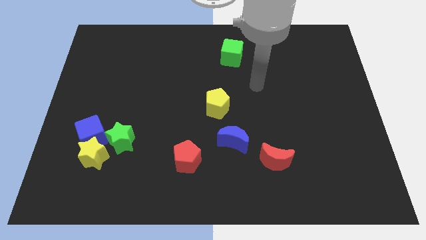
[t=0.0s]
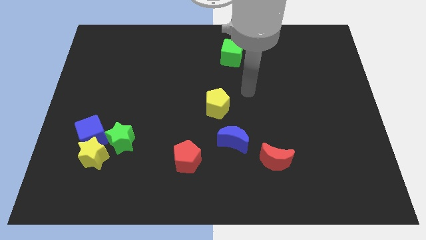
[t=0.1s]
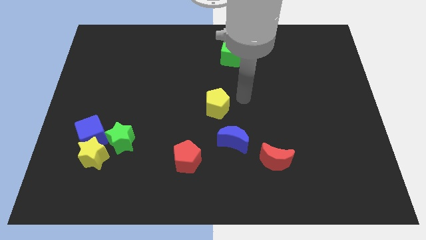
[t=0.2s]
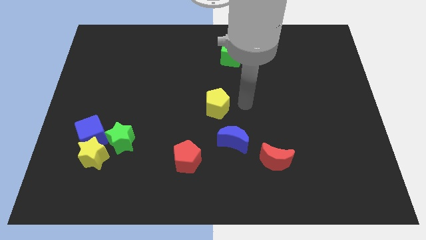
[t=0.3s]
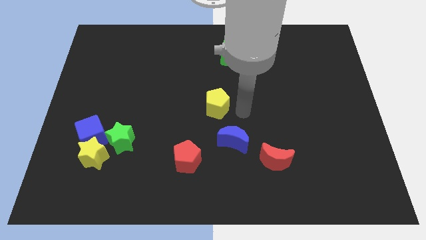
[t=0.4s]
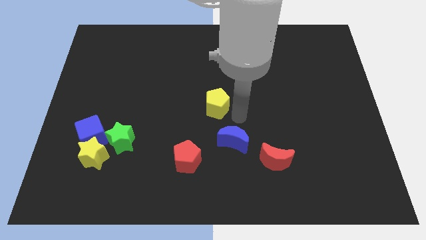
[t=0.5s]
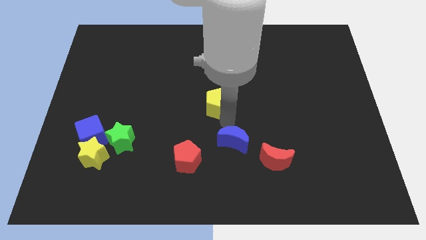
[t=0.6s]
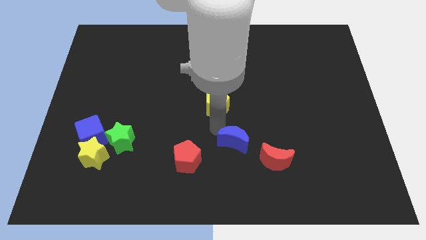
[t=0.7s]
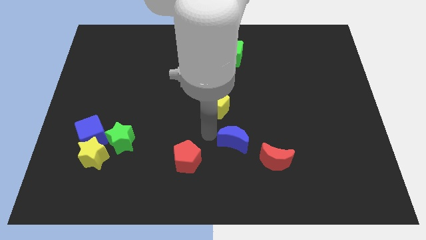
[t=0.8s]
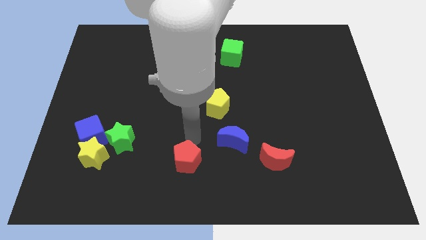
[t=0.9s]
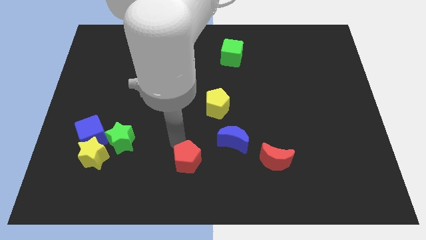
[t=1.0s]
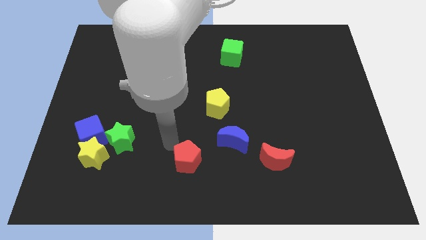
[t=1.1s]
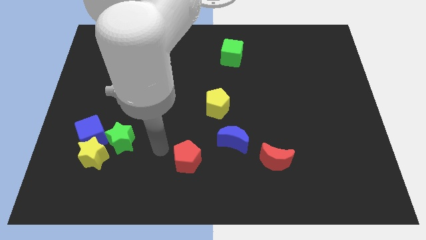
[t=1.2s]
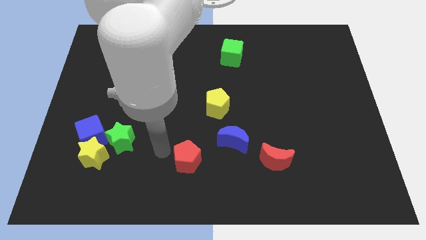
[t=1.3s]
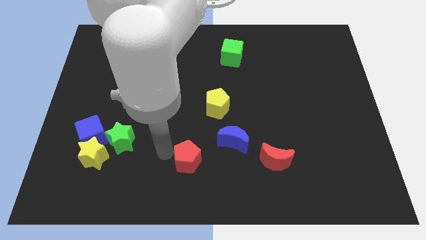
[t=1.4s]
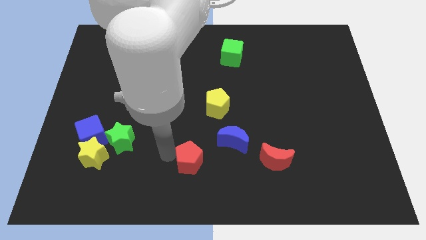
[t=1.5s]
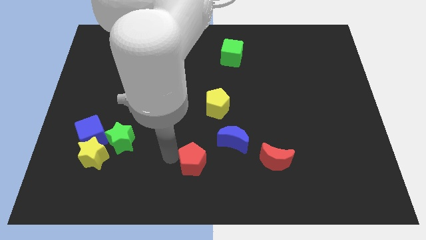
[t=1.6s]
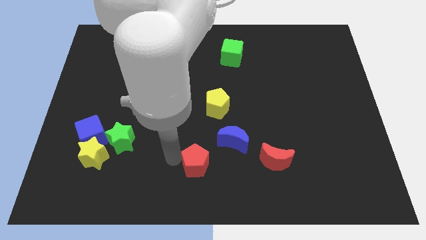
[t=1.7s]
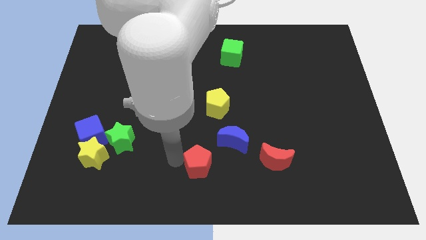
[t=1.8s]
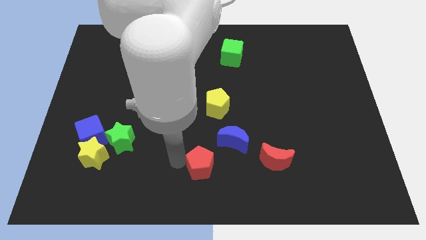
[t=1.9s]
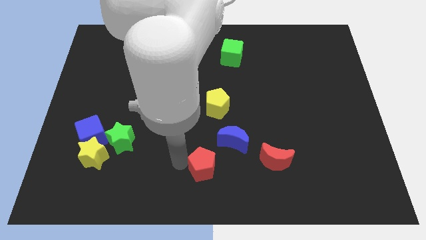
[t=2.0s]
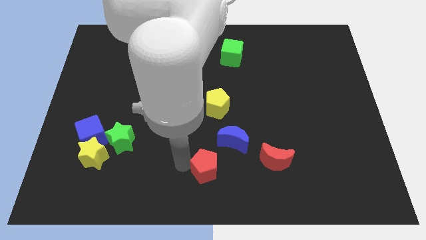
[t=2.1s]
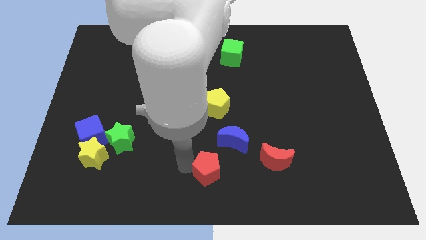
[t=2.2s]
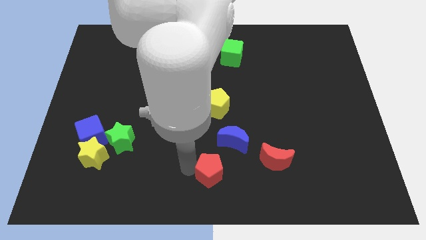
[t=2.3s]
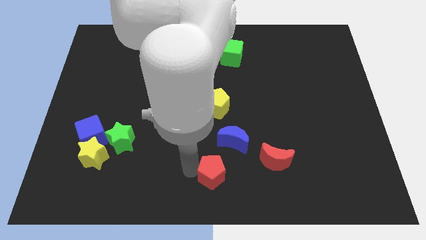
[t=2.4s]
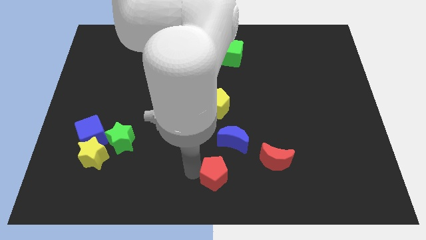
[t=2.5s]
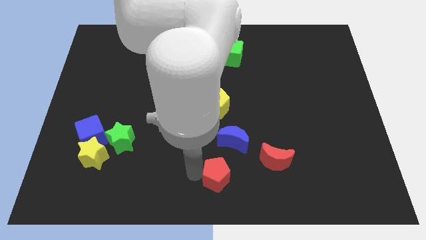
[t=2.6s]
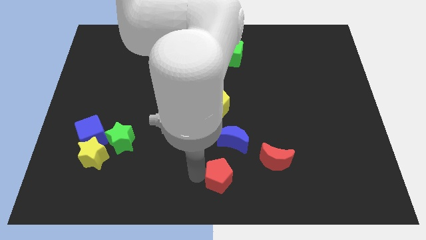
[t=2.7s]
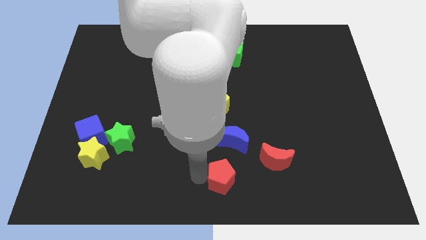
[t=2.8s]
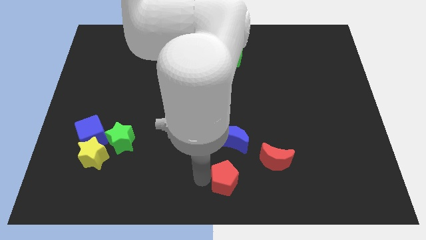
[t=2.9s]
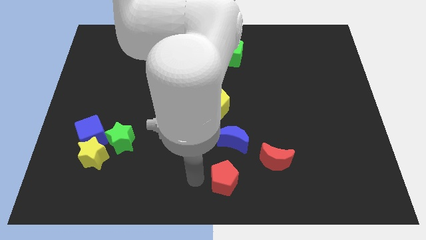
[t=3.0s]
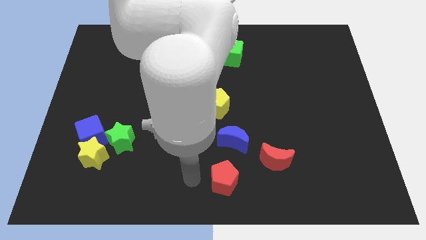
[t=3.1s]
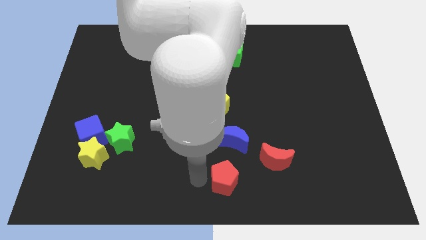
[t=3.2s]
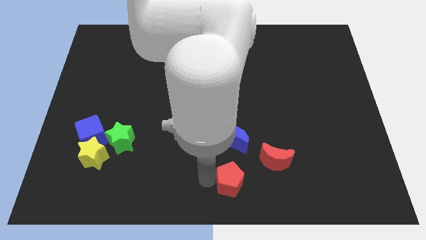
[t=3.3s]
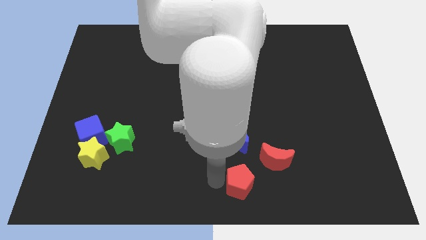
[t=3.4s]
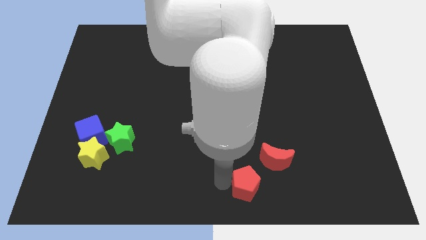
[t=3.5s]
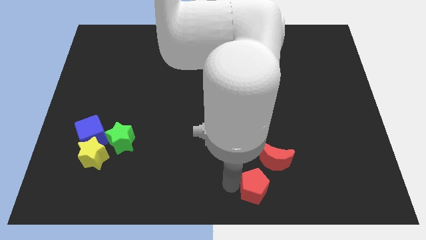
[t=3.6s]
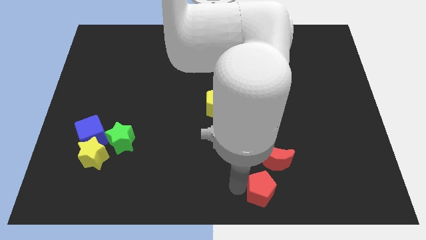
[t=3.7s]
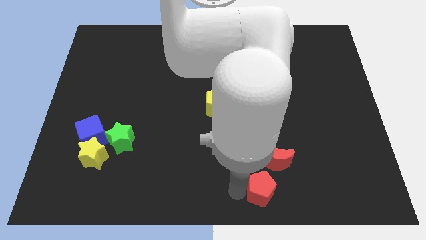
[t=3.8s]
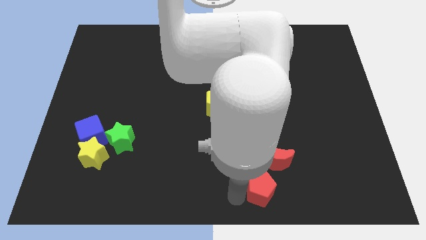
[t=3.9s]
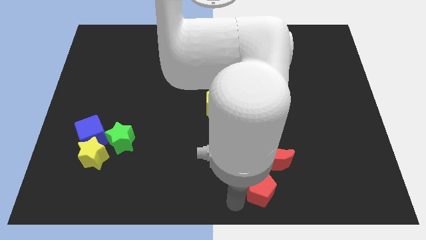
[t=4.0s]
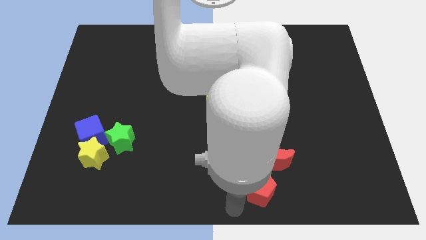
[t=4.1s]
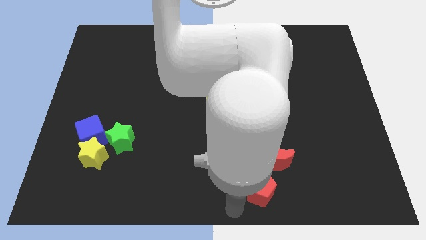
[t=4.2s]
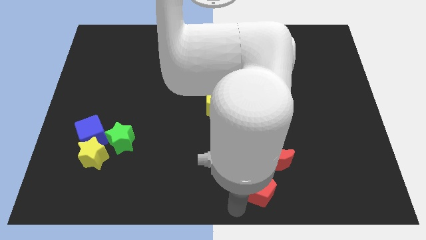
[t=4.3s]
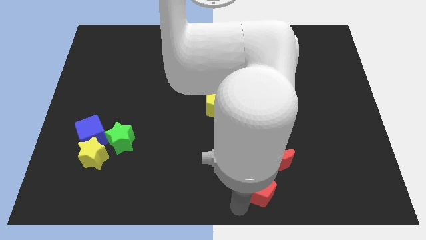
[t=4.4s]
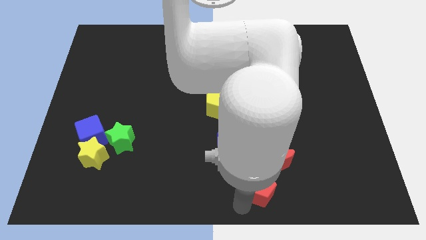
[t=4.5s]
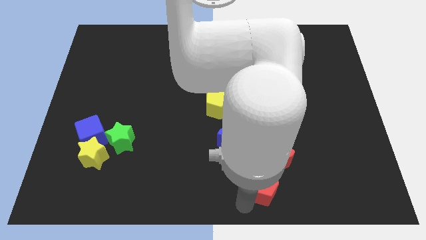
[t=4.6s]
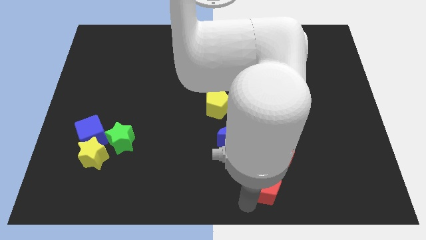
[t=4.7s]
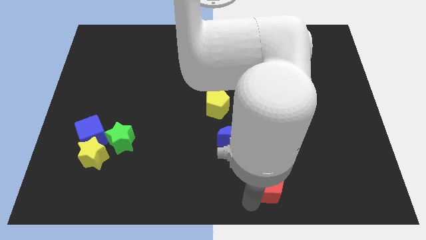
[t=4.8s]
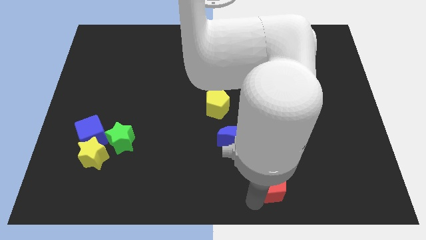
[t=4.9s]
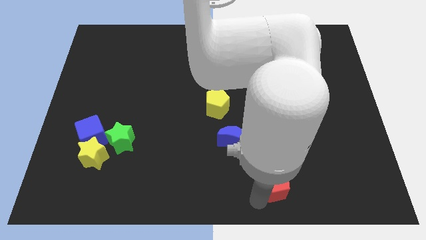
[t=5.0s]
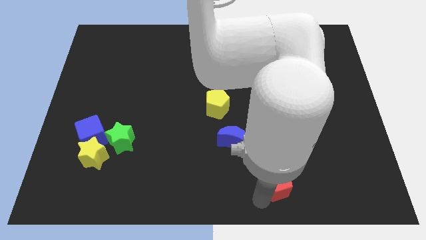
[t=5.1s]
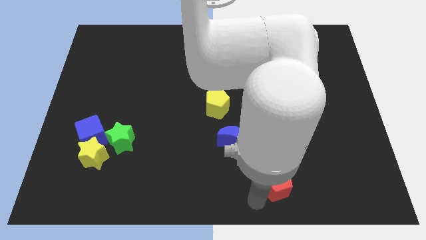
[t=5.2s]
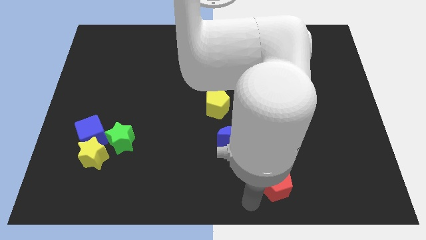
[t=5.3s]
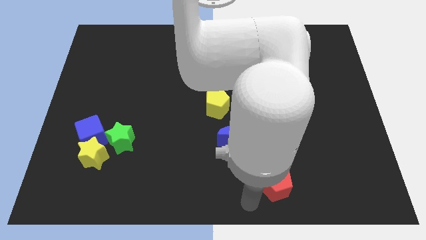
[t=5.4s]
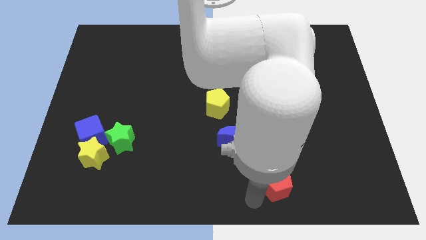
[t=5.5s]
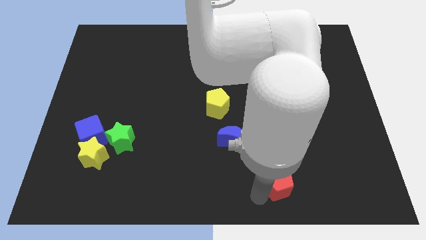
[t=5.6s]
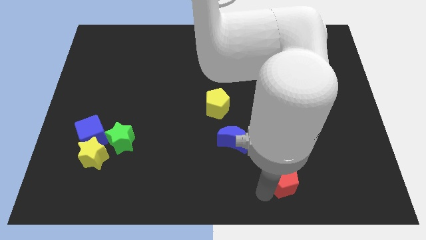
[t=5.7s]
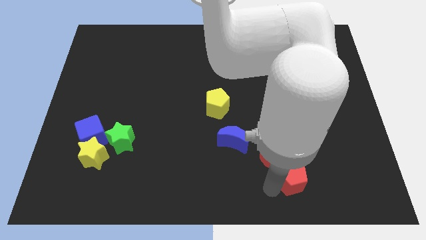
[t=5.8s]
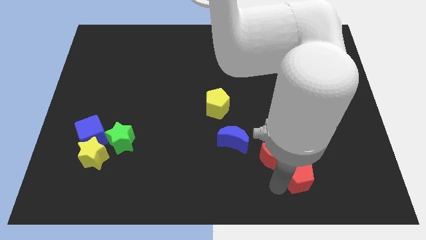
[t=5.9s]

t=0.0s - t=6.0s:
put the red pentagon right of the red moon

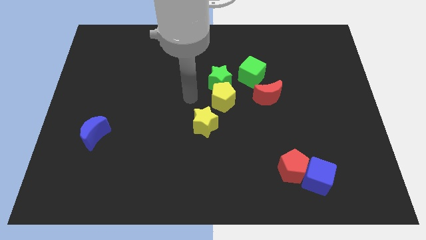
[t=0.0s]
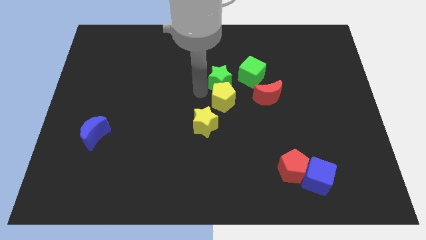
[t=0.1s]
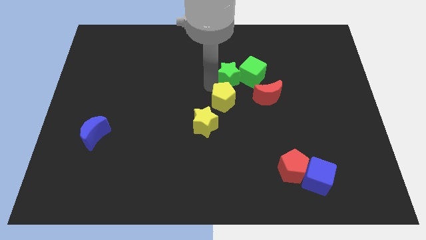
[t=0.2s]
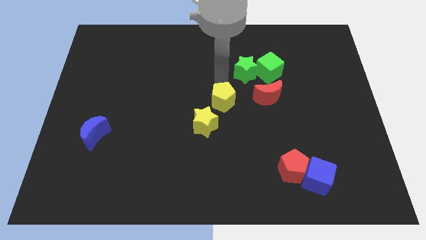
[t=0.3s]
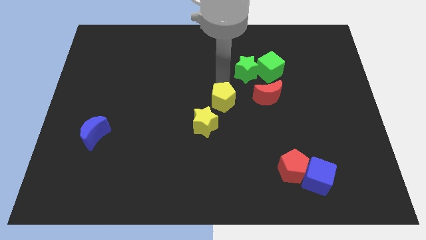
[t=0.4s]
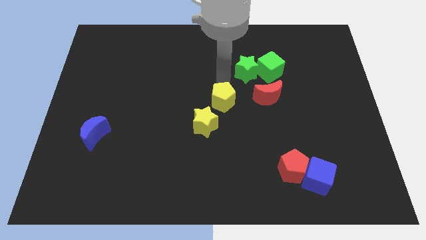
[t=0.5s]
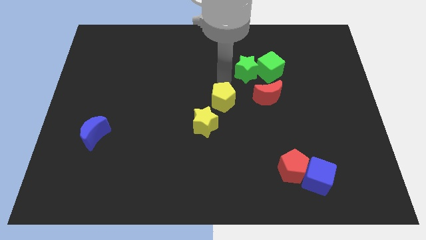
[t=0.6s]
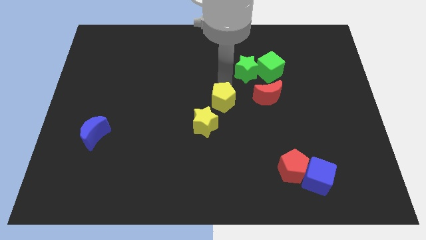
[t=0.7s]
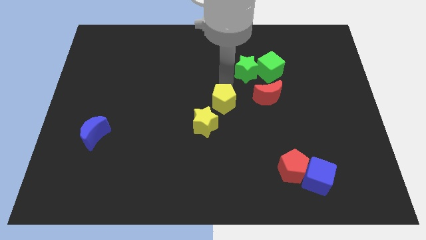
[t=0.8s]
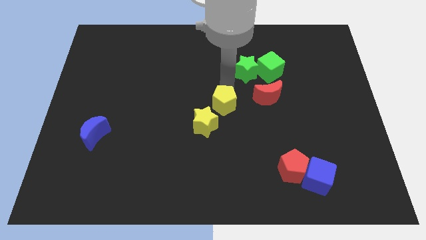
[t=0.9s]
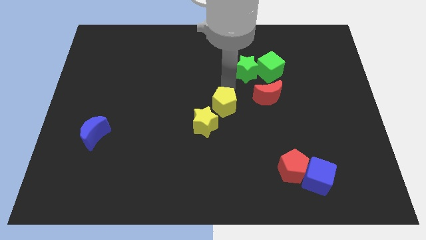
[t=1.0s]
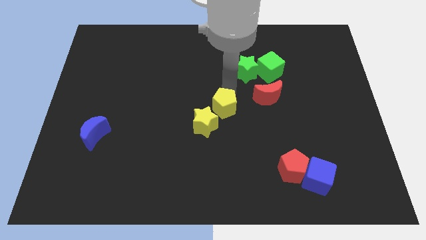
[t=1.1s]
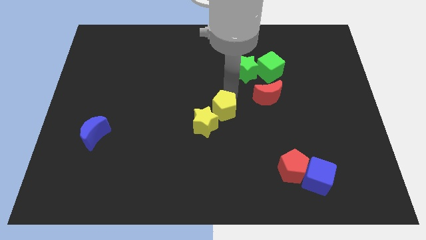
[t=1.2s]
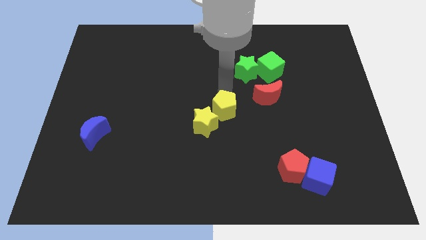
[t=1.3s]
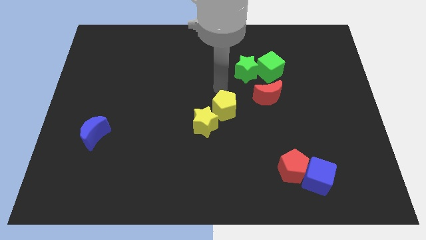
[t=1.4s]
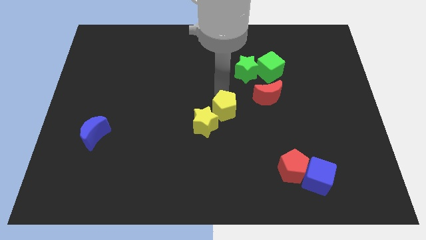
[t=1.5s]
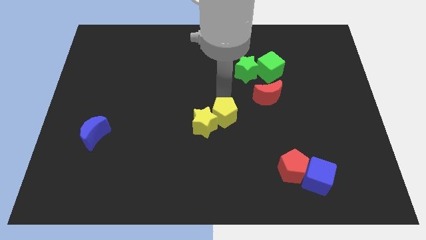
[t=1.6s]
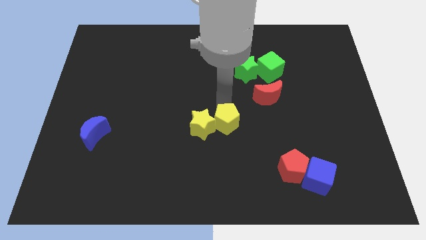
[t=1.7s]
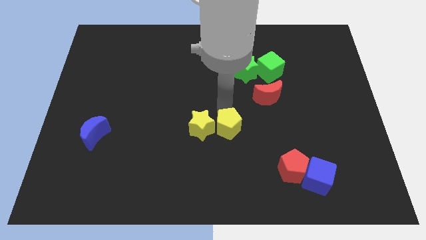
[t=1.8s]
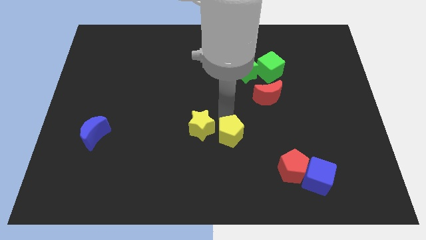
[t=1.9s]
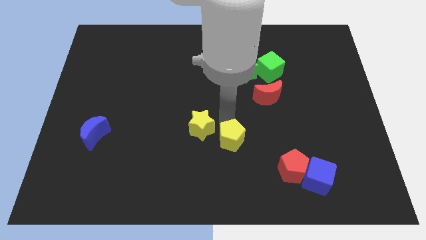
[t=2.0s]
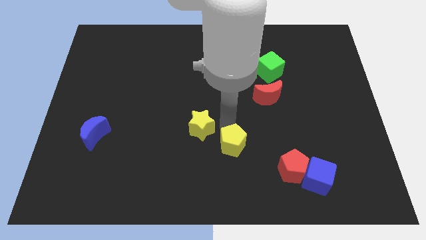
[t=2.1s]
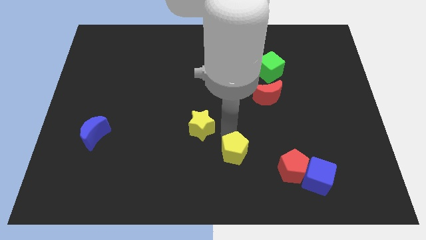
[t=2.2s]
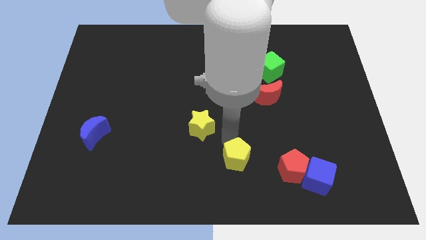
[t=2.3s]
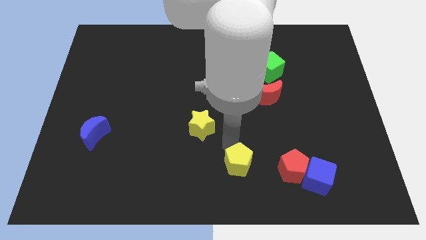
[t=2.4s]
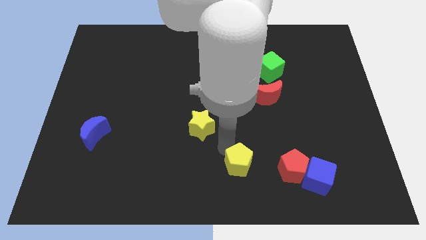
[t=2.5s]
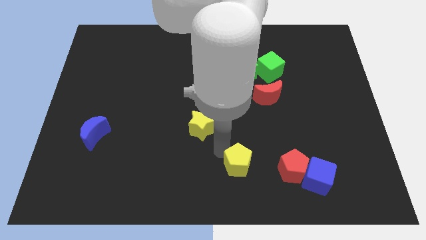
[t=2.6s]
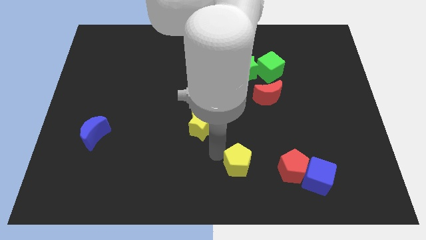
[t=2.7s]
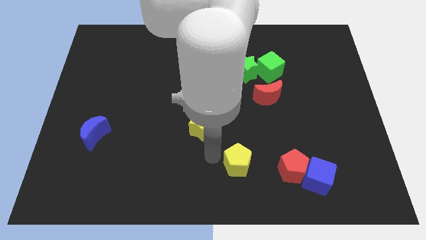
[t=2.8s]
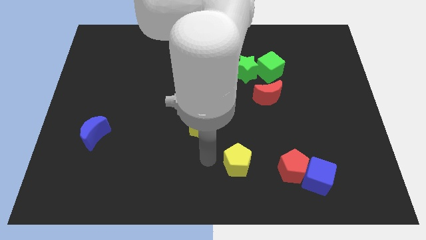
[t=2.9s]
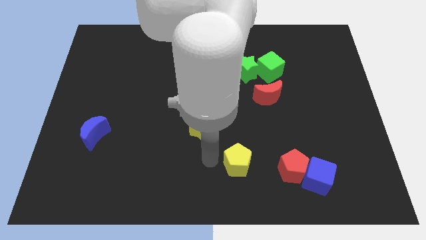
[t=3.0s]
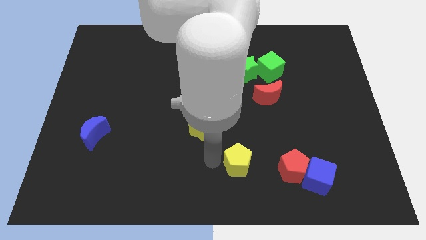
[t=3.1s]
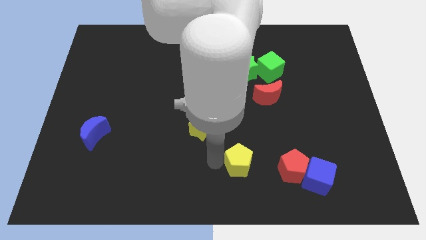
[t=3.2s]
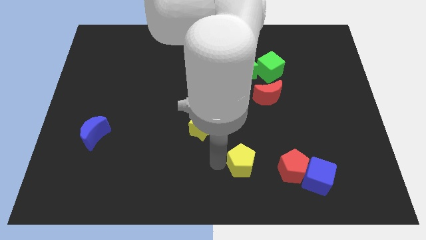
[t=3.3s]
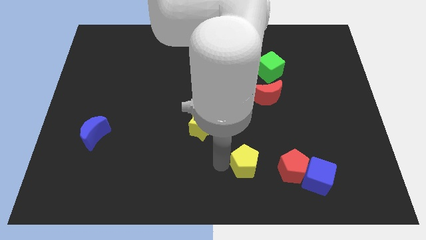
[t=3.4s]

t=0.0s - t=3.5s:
slide the yellow pentagon to the left of the blue cube
